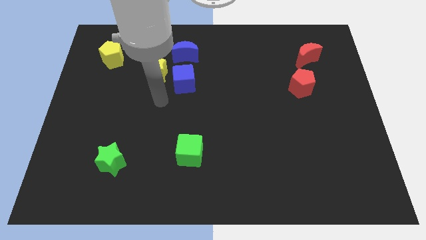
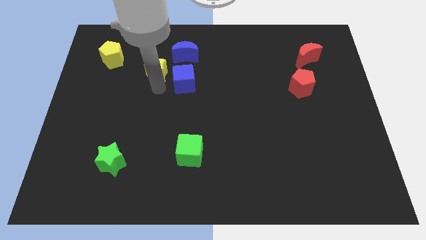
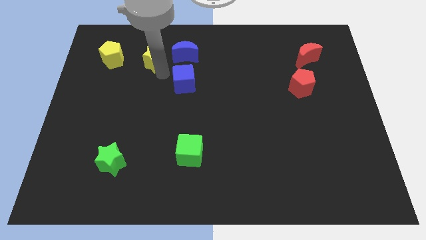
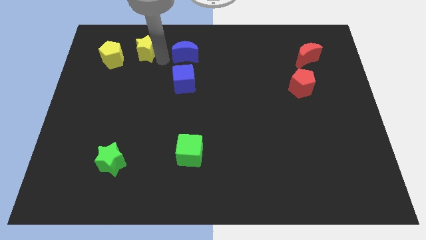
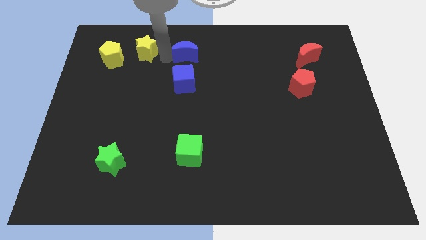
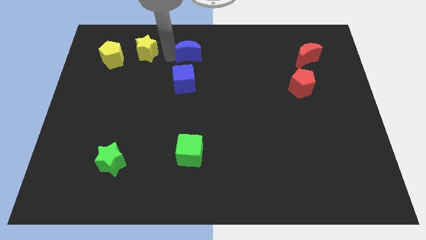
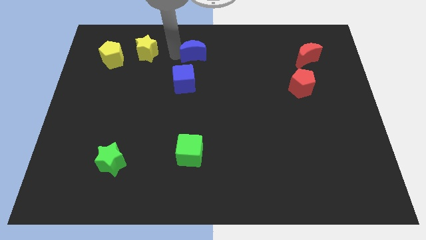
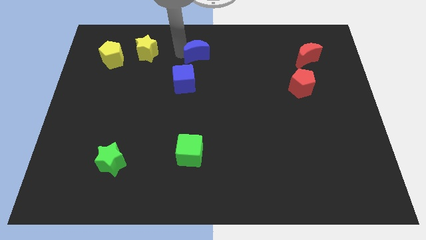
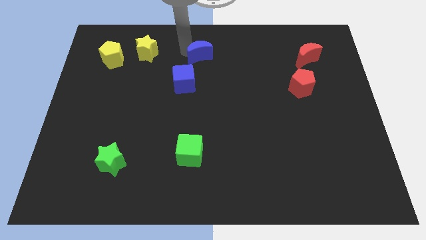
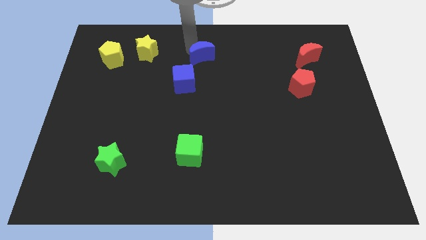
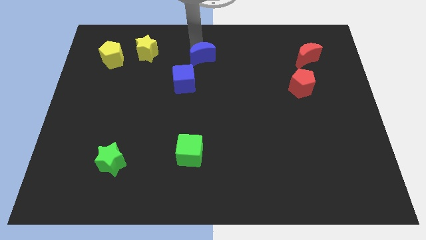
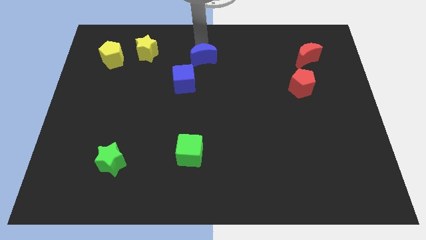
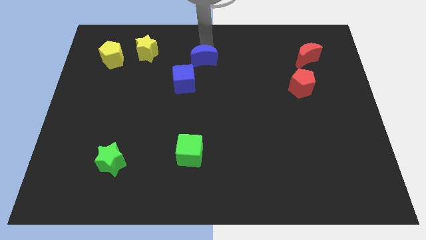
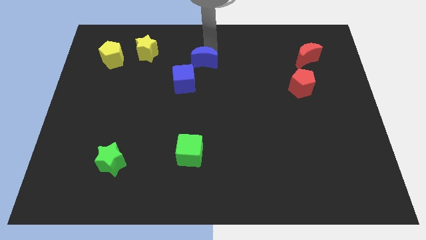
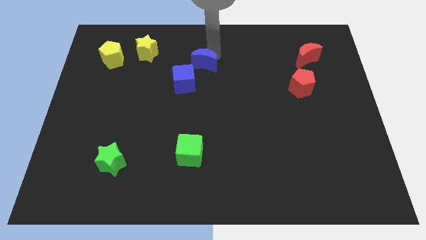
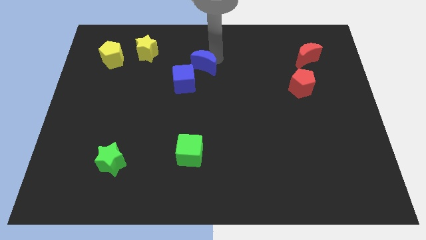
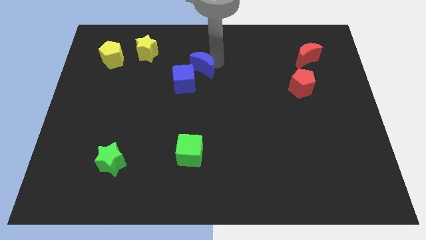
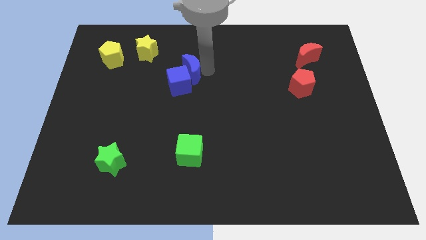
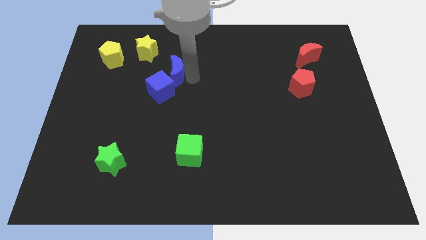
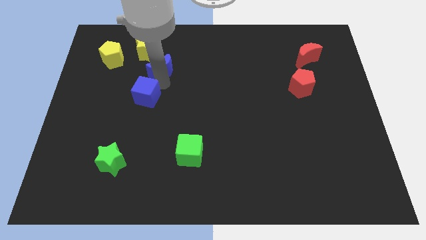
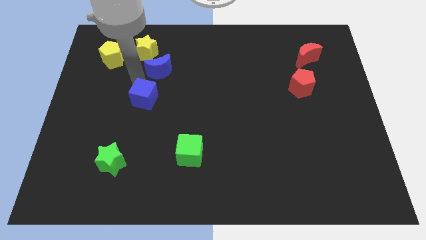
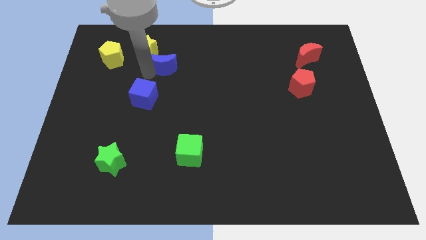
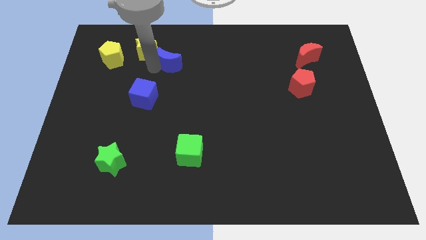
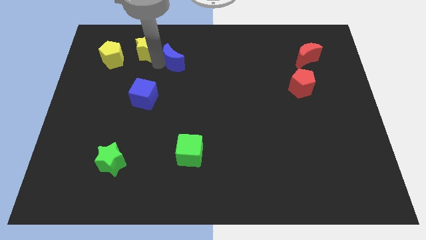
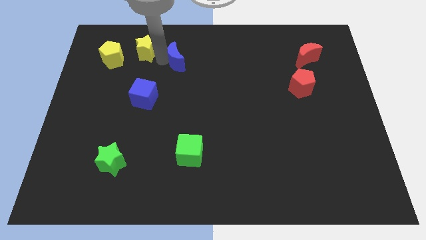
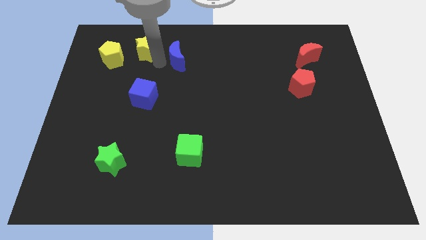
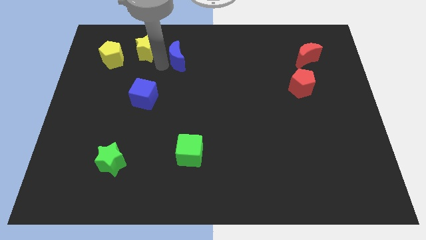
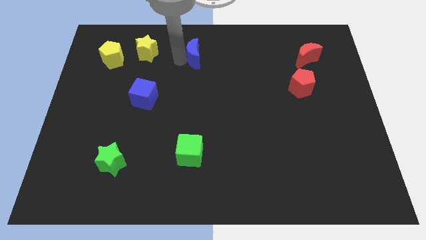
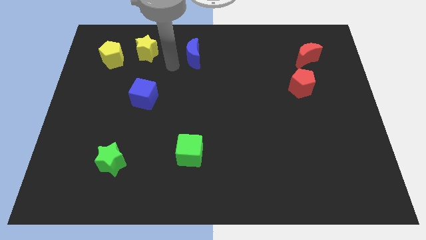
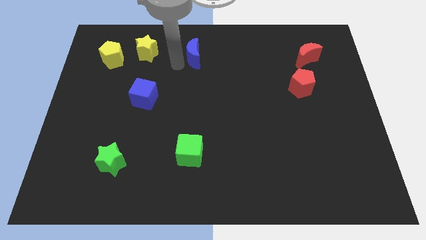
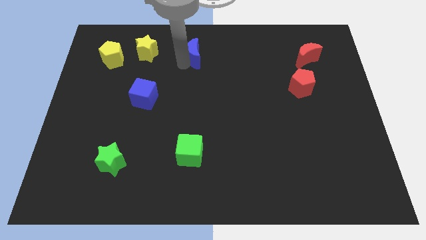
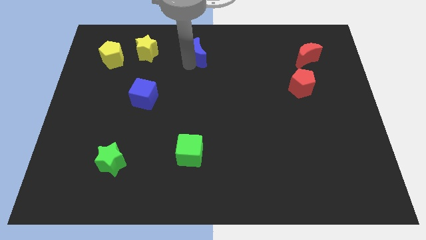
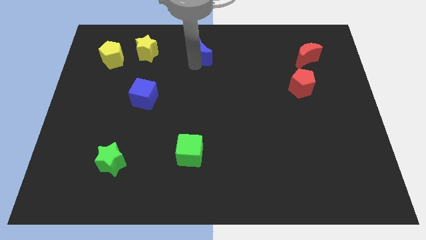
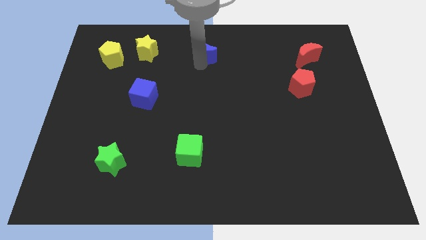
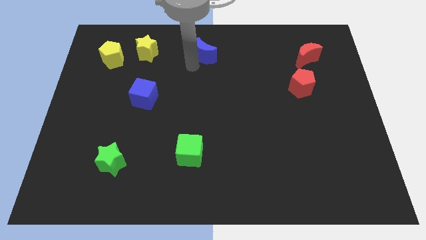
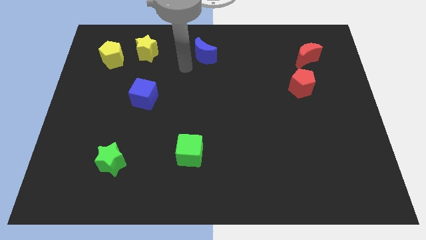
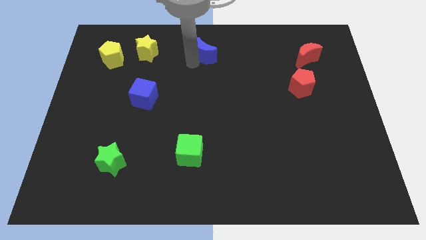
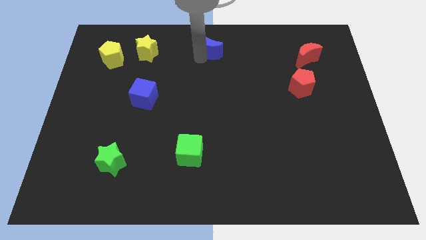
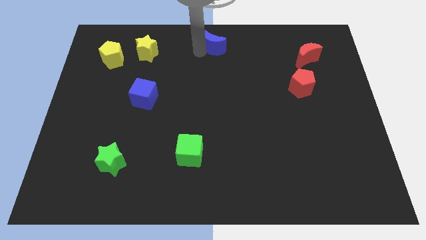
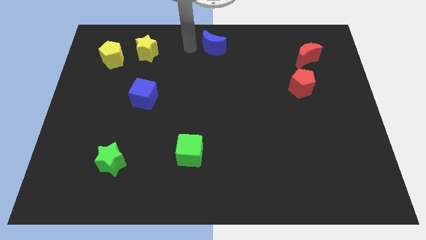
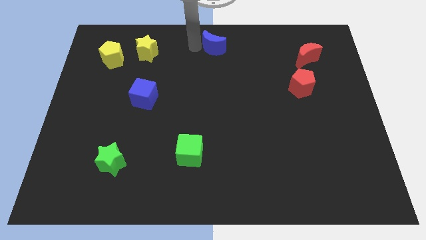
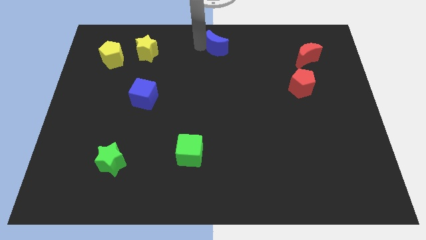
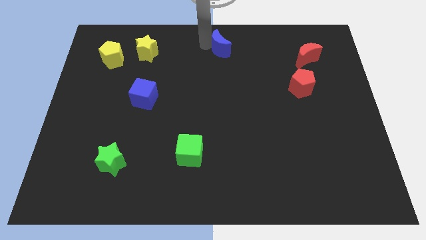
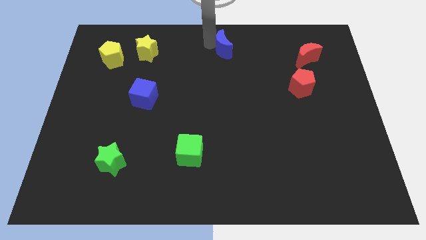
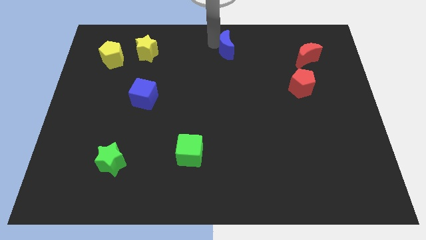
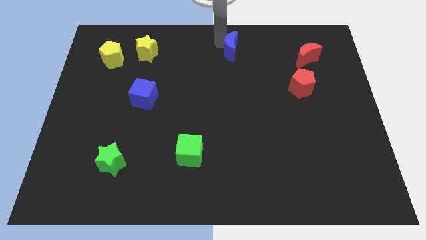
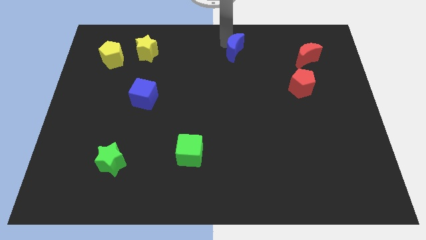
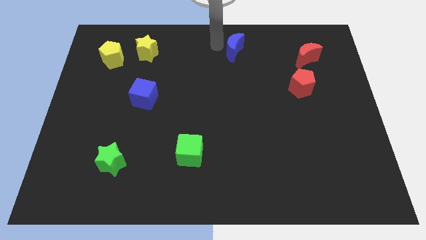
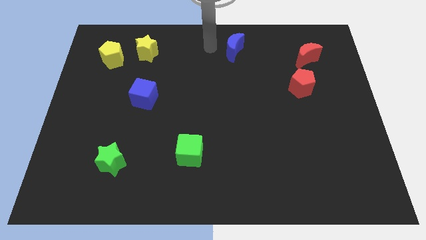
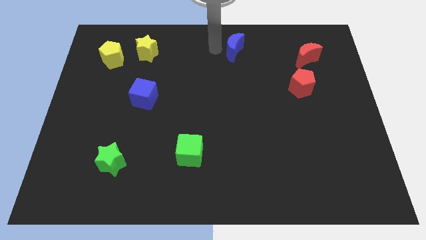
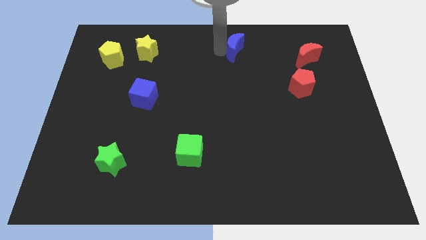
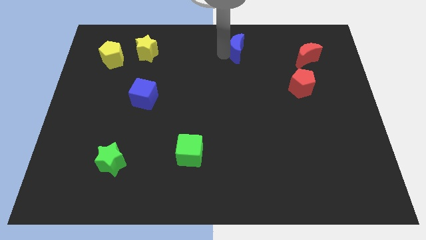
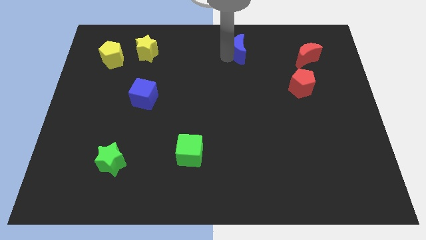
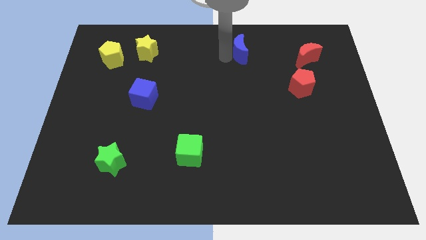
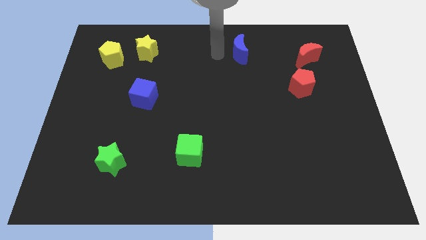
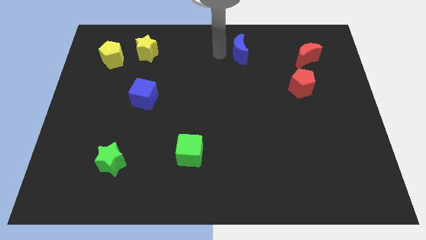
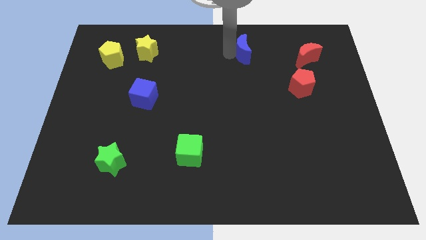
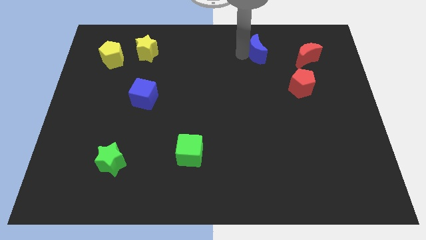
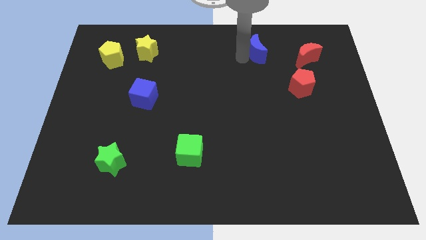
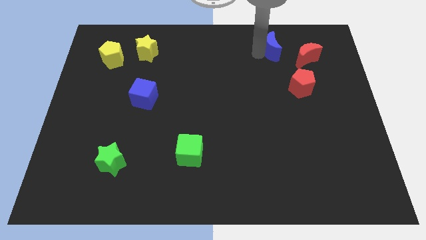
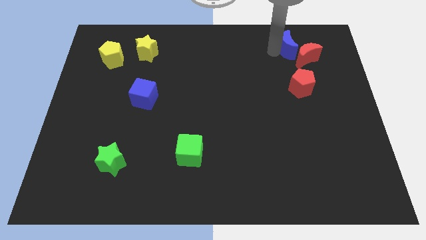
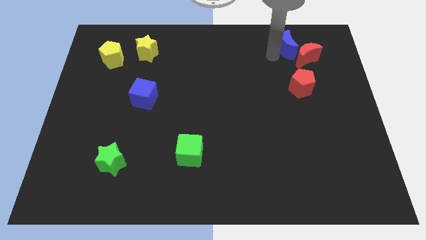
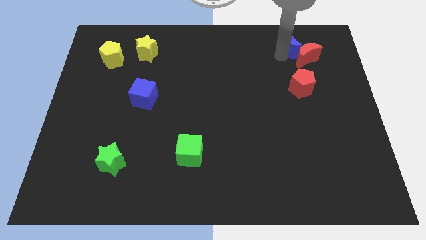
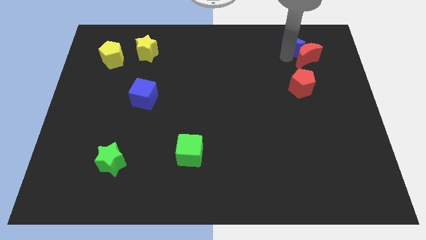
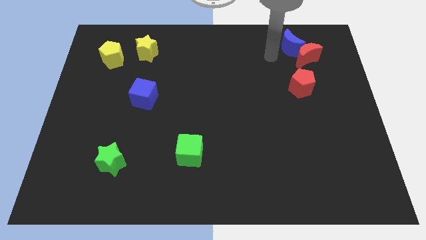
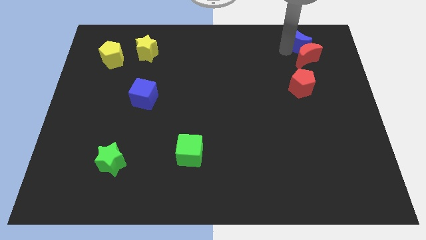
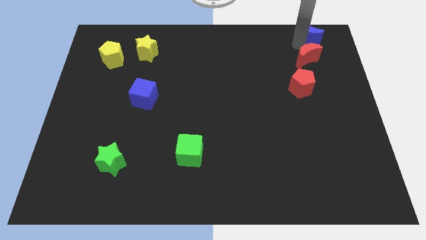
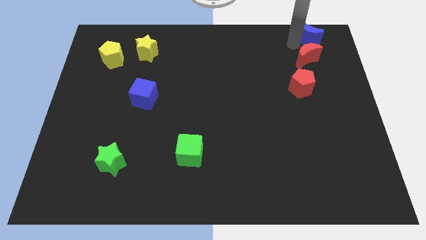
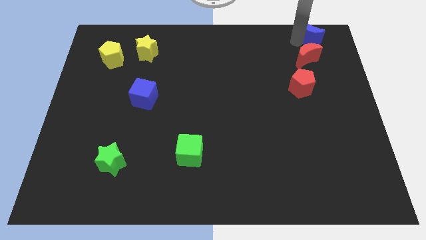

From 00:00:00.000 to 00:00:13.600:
push the blue moon to the top right of the board
